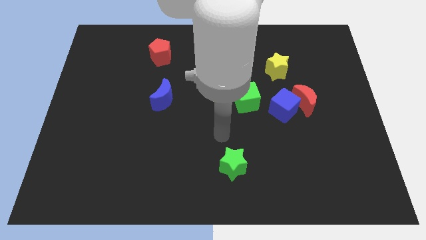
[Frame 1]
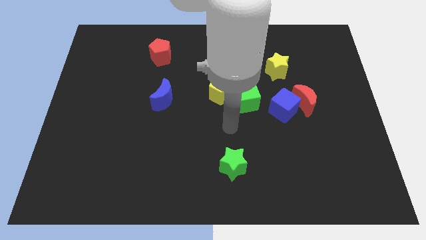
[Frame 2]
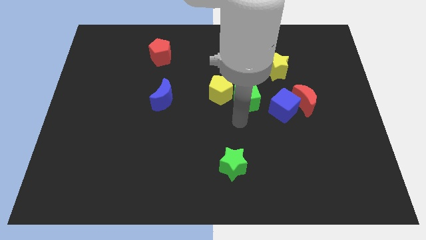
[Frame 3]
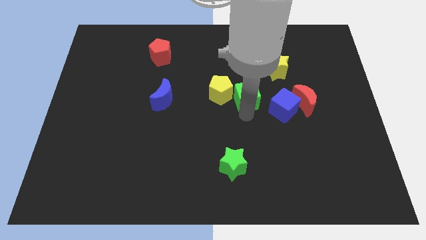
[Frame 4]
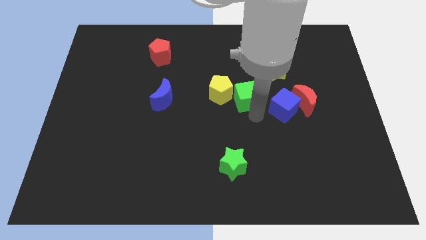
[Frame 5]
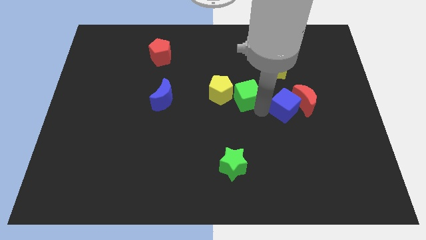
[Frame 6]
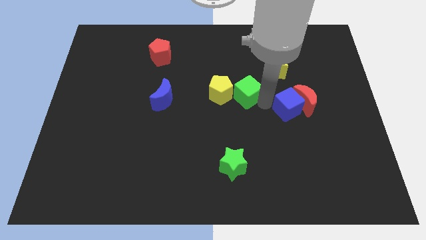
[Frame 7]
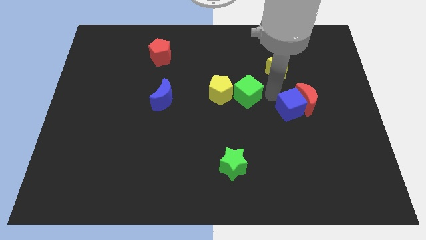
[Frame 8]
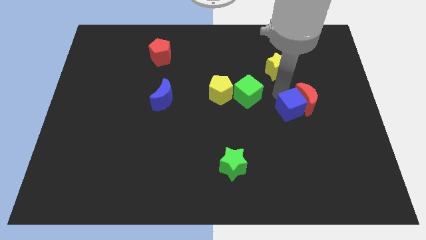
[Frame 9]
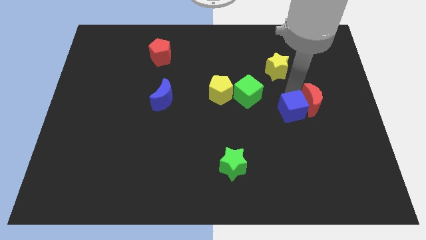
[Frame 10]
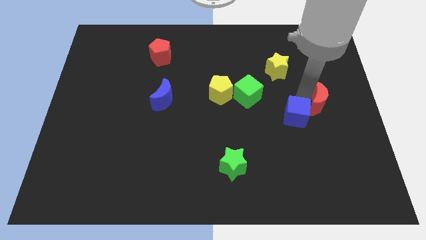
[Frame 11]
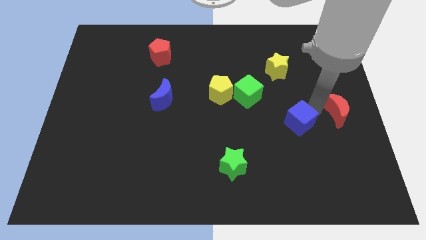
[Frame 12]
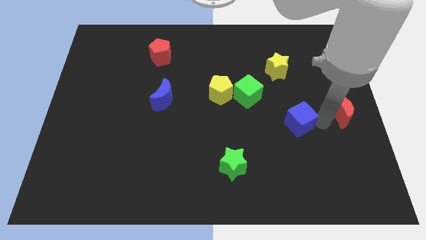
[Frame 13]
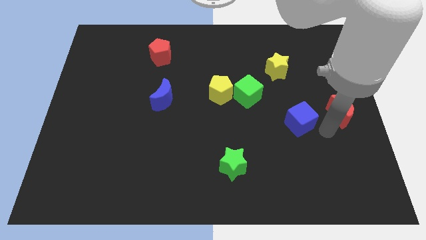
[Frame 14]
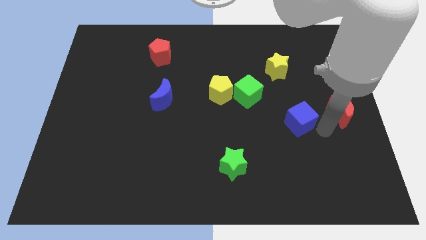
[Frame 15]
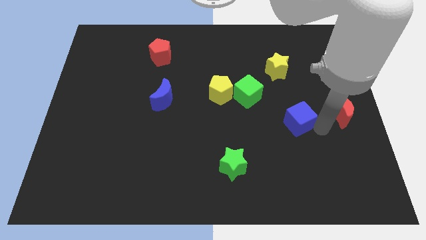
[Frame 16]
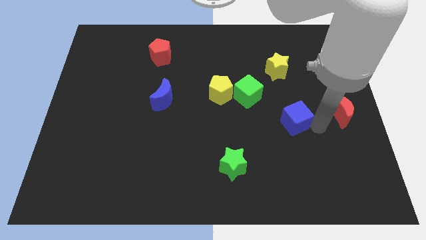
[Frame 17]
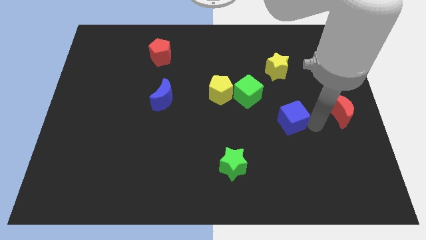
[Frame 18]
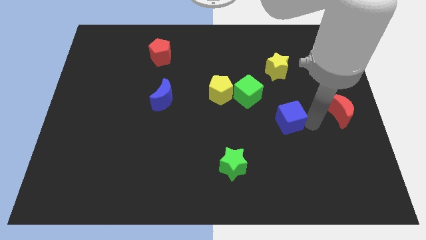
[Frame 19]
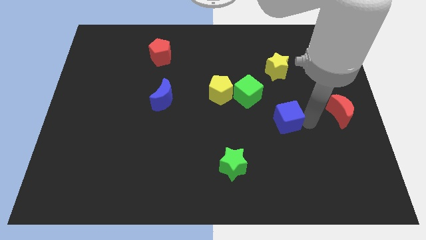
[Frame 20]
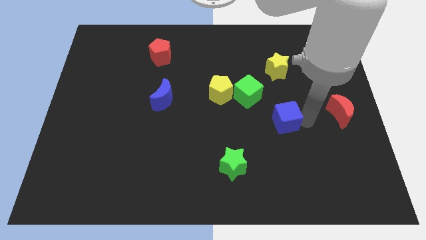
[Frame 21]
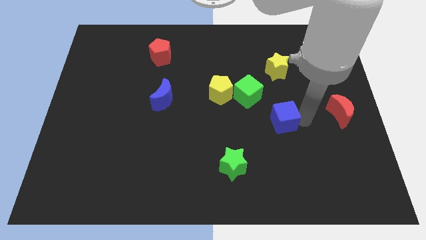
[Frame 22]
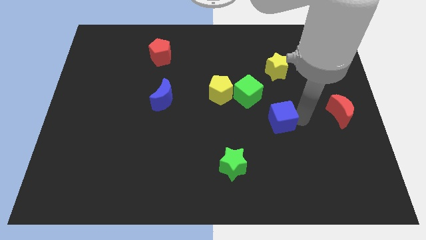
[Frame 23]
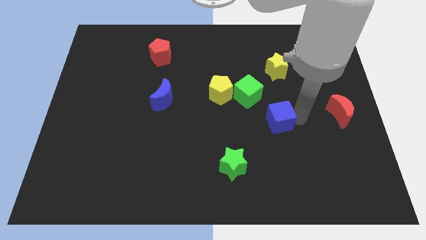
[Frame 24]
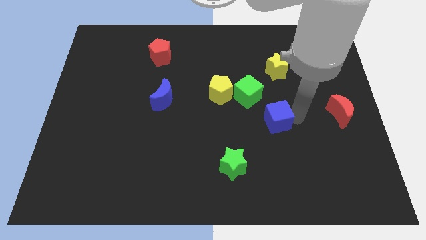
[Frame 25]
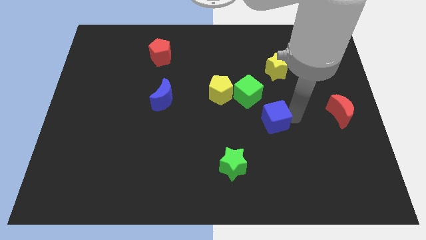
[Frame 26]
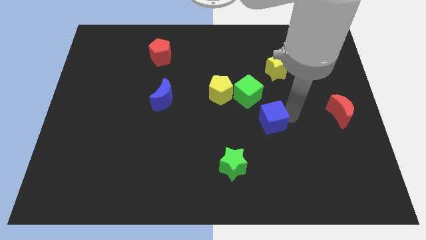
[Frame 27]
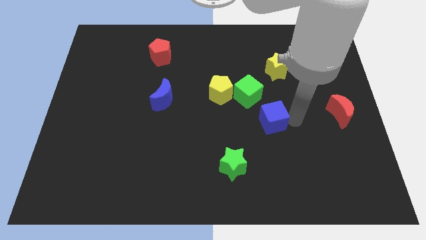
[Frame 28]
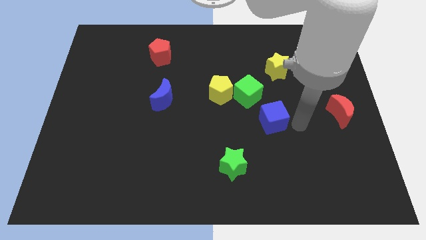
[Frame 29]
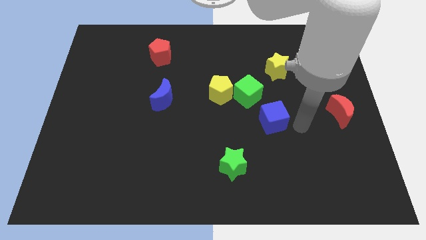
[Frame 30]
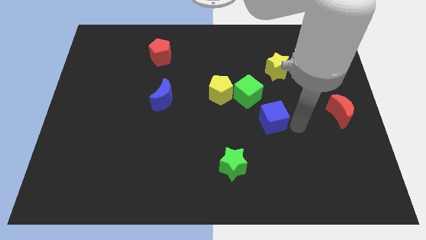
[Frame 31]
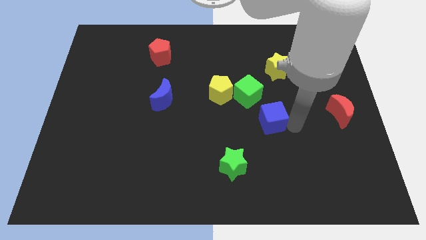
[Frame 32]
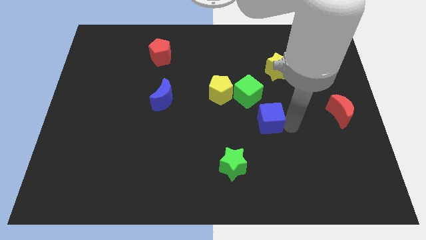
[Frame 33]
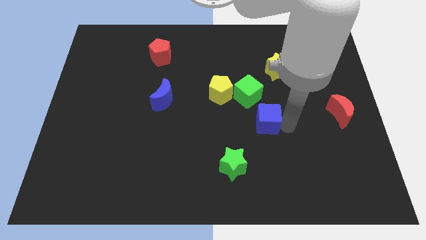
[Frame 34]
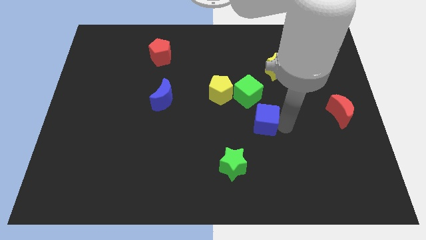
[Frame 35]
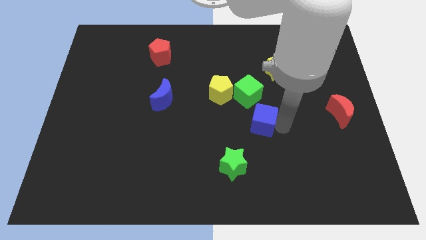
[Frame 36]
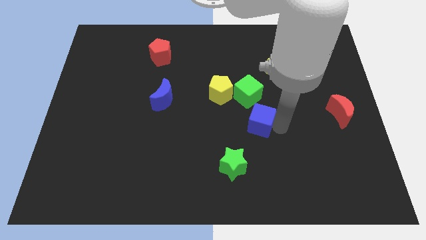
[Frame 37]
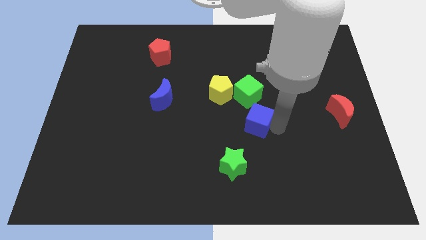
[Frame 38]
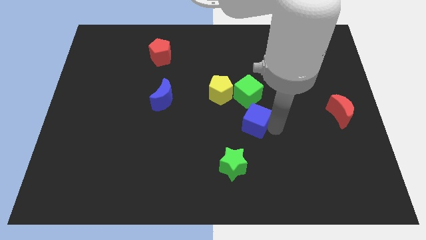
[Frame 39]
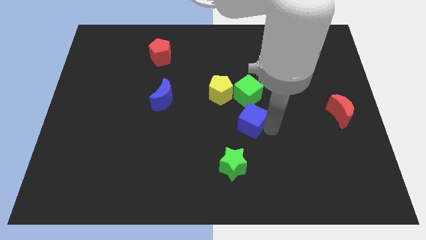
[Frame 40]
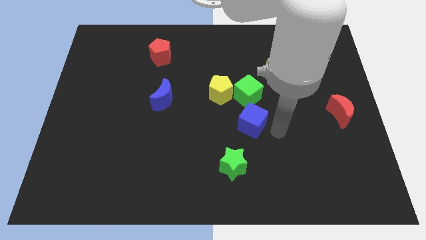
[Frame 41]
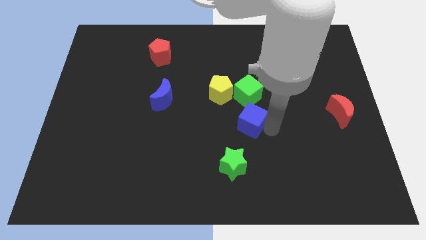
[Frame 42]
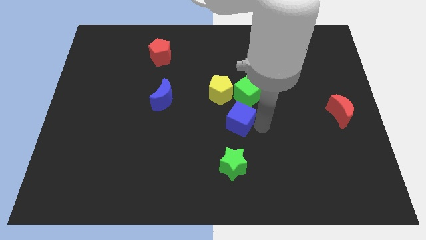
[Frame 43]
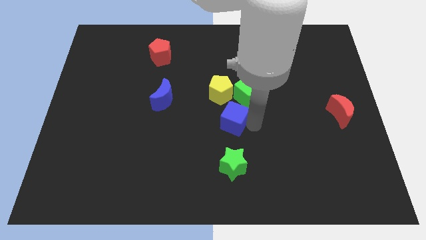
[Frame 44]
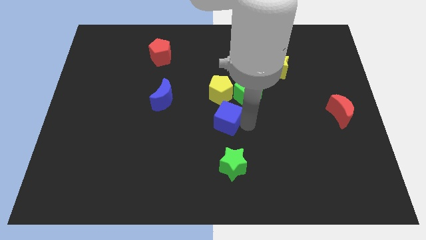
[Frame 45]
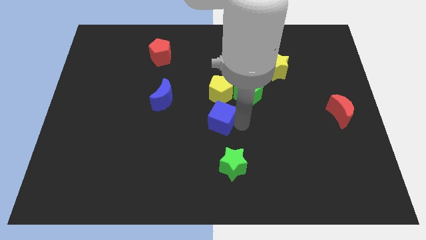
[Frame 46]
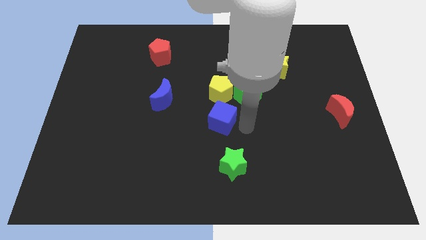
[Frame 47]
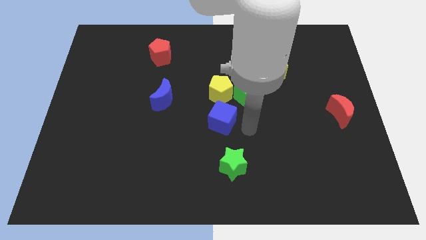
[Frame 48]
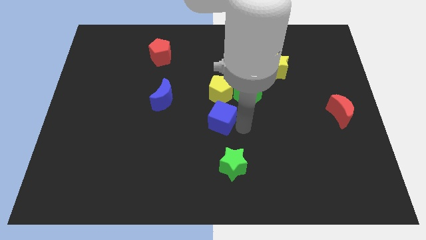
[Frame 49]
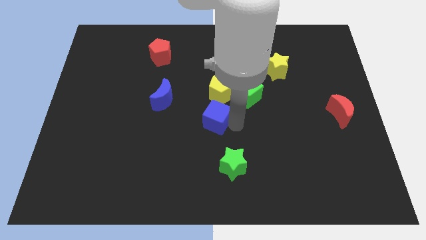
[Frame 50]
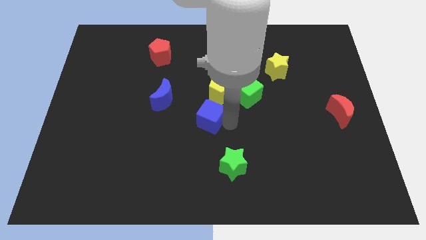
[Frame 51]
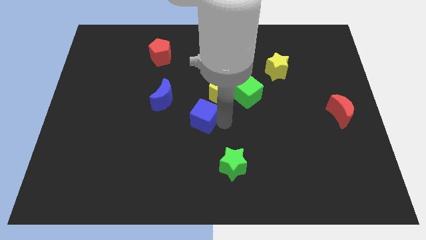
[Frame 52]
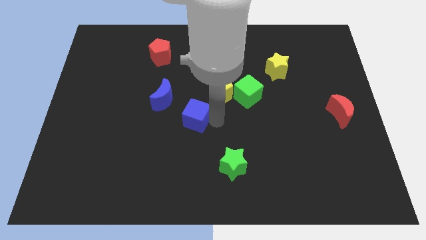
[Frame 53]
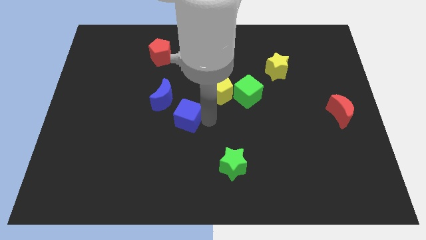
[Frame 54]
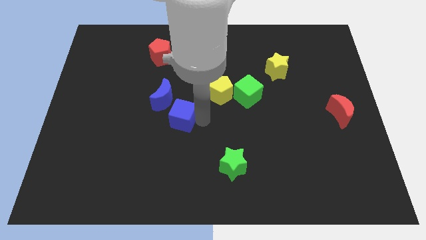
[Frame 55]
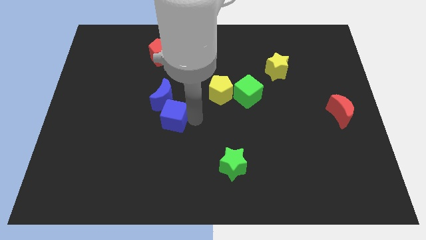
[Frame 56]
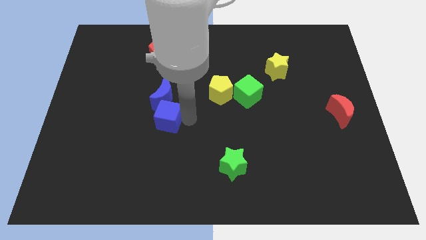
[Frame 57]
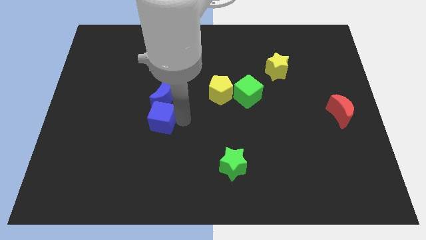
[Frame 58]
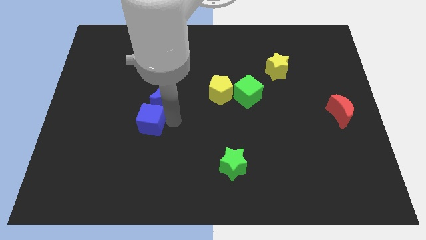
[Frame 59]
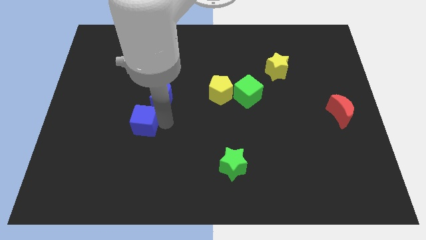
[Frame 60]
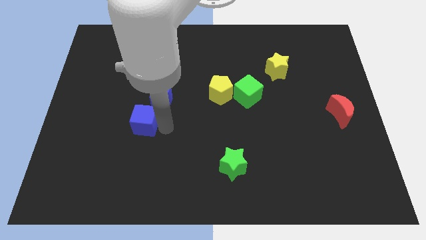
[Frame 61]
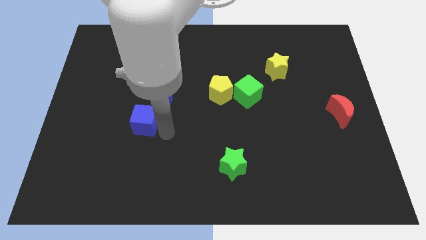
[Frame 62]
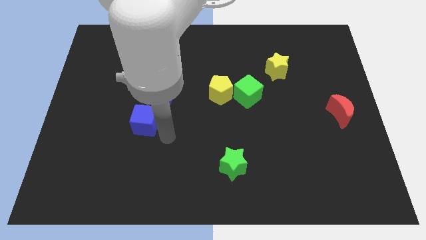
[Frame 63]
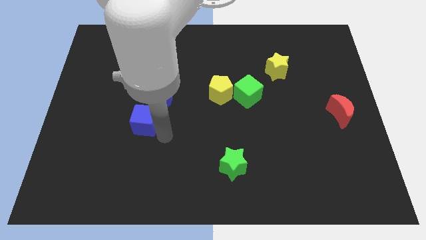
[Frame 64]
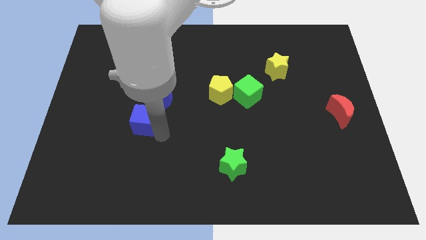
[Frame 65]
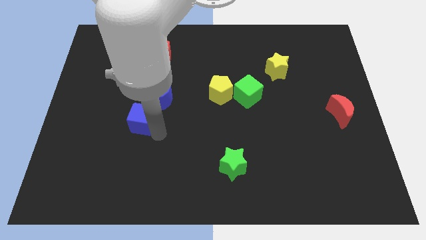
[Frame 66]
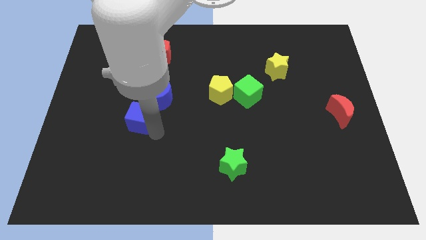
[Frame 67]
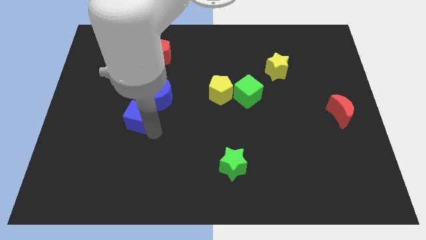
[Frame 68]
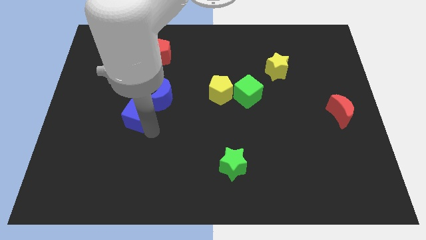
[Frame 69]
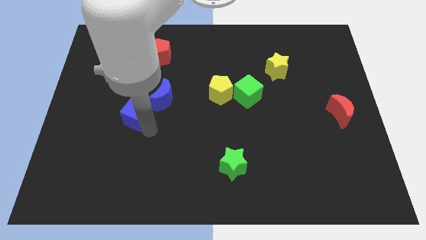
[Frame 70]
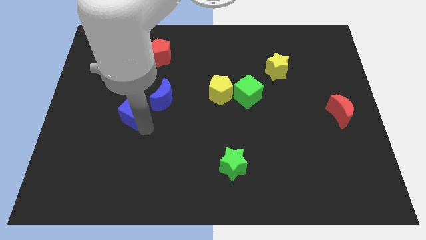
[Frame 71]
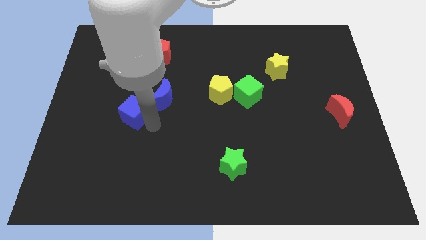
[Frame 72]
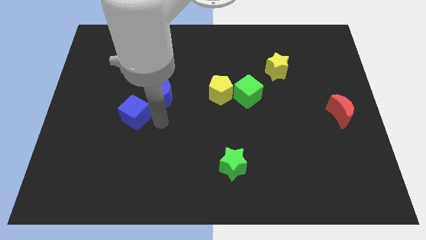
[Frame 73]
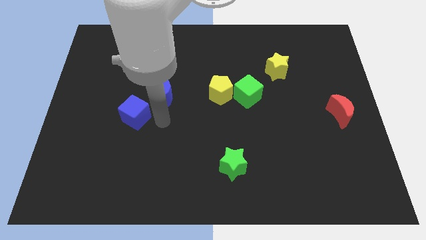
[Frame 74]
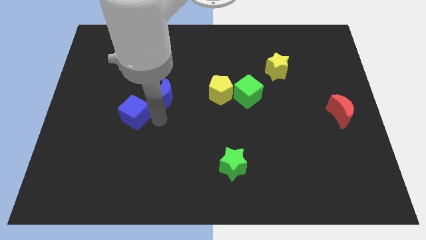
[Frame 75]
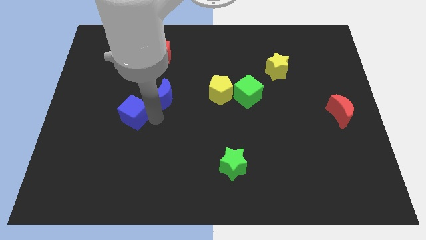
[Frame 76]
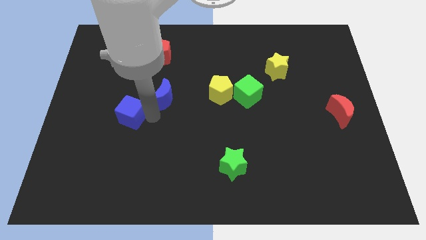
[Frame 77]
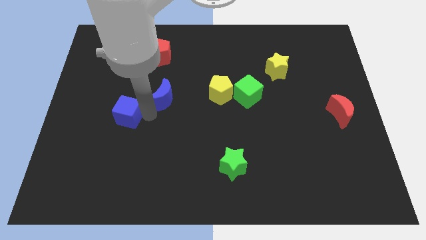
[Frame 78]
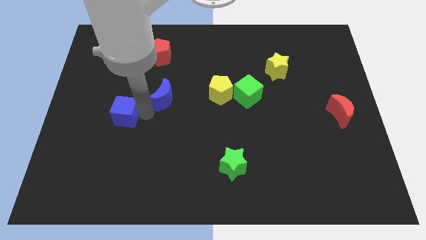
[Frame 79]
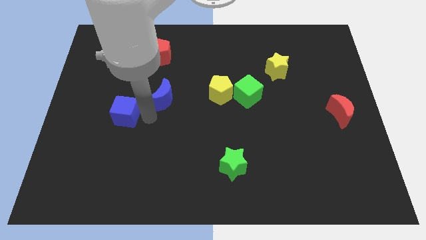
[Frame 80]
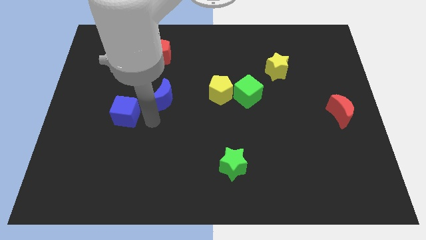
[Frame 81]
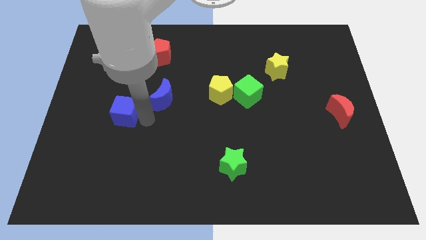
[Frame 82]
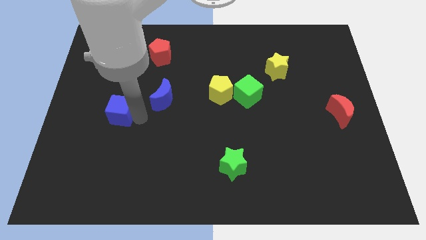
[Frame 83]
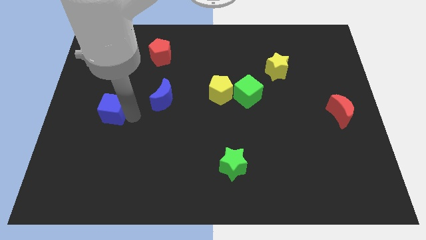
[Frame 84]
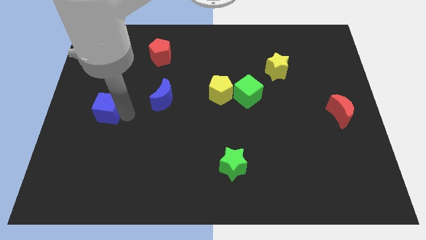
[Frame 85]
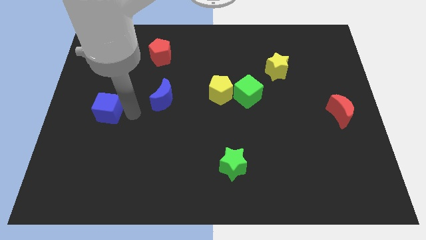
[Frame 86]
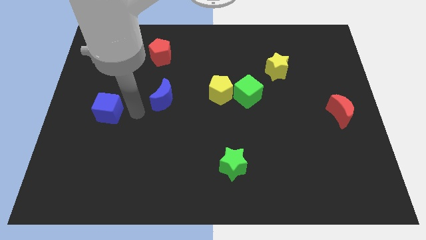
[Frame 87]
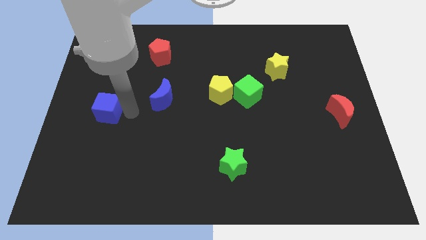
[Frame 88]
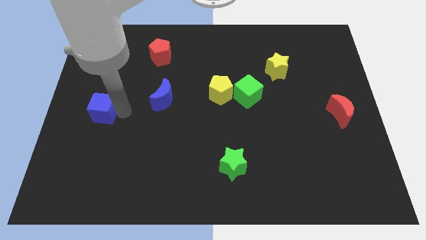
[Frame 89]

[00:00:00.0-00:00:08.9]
move the blue cube to the left side
